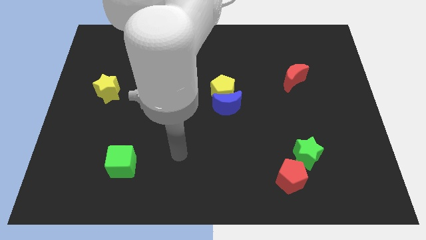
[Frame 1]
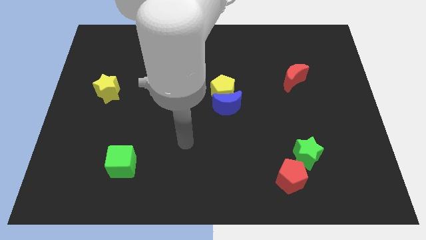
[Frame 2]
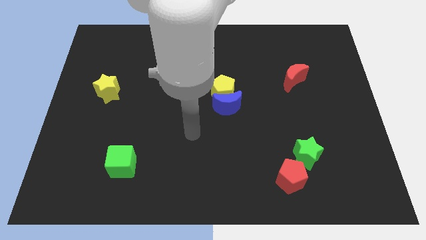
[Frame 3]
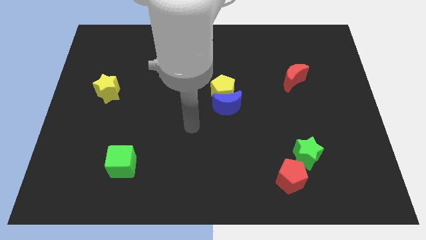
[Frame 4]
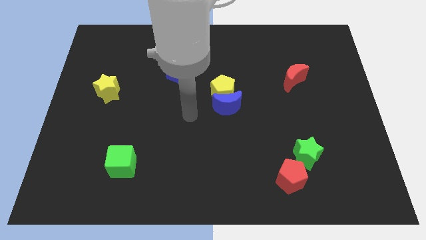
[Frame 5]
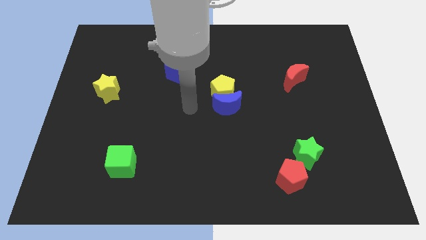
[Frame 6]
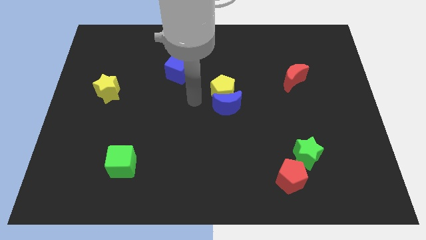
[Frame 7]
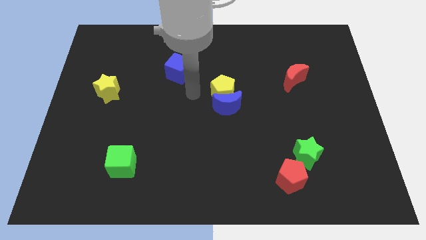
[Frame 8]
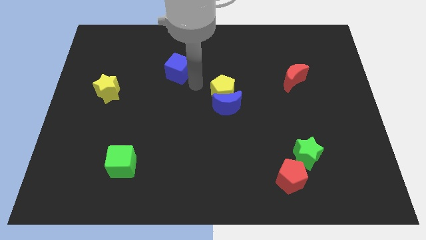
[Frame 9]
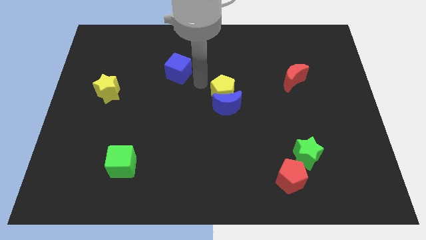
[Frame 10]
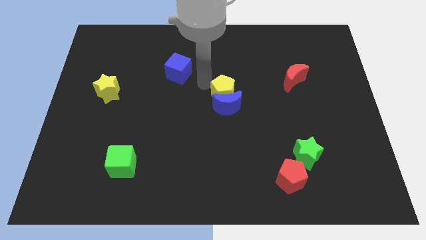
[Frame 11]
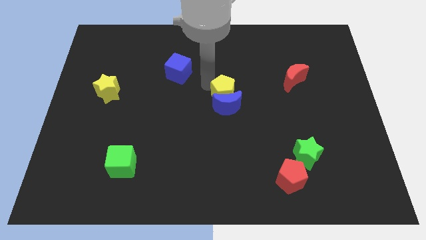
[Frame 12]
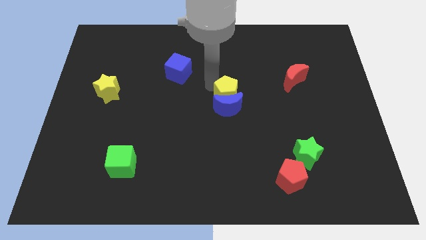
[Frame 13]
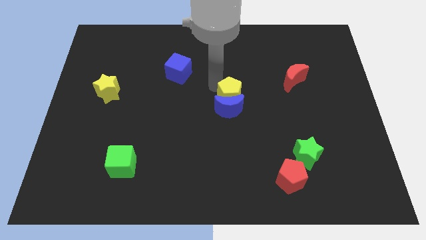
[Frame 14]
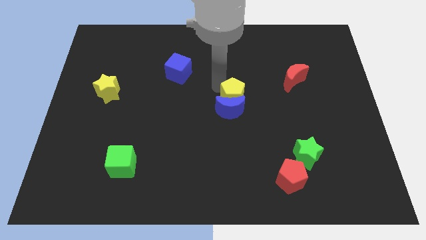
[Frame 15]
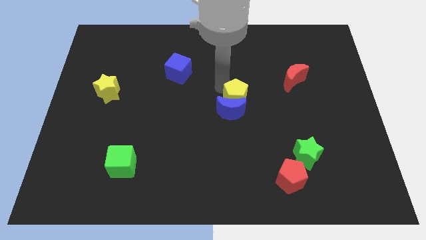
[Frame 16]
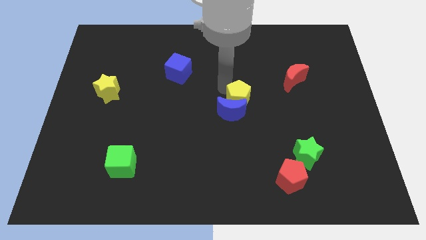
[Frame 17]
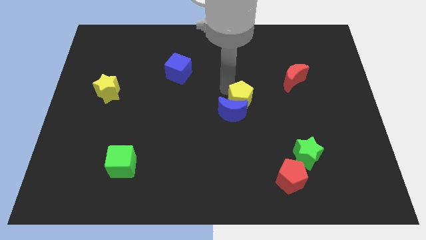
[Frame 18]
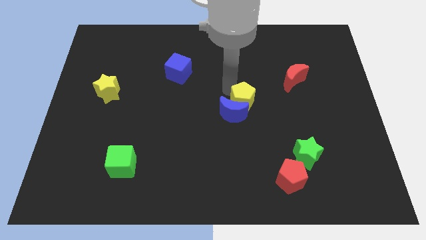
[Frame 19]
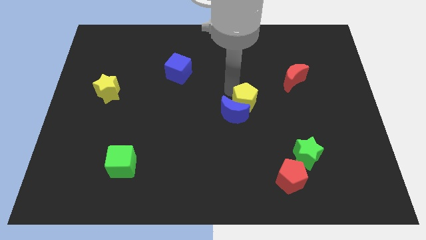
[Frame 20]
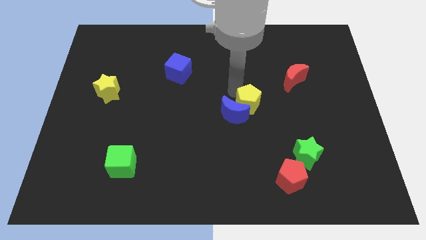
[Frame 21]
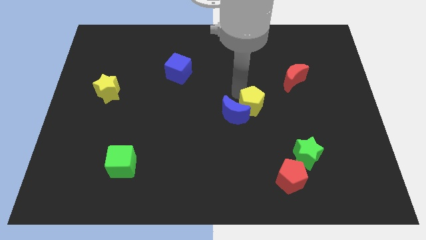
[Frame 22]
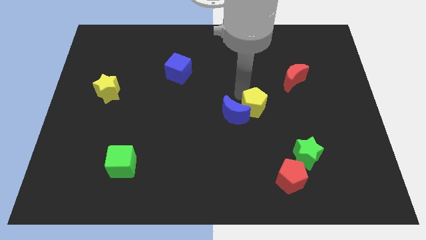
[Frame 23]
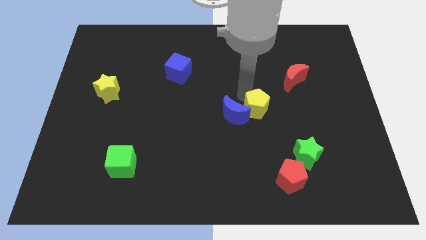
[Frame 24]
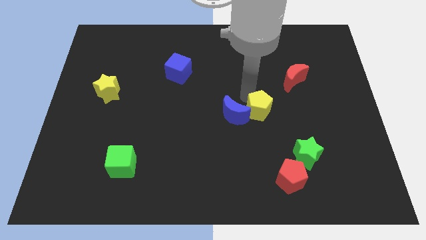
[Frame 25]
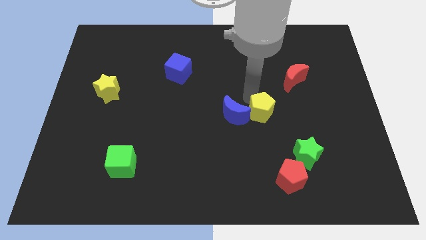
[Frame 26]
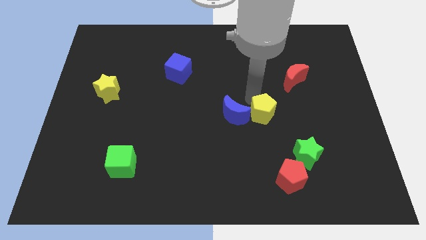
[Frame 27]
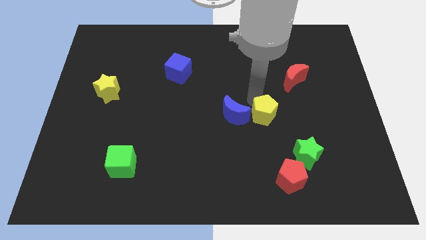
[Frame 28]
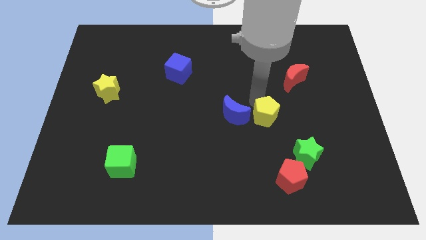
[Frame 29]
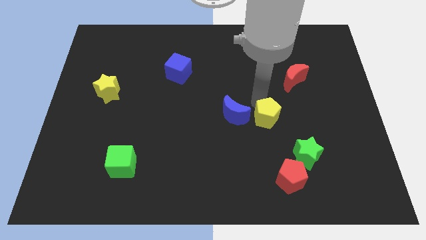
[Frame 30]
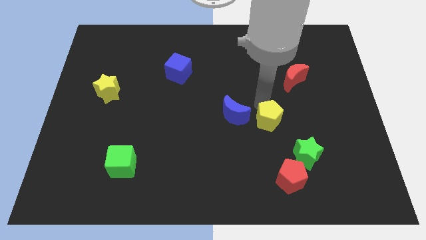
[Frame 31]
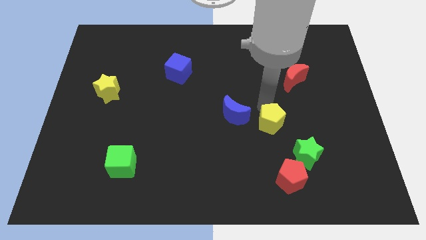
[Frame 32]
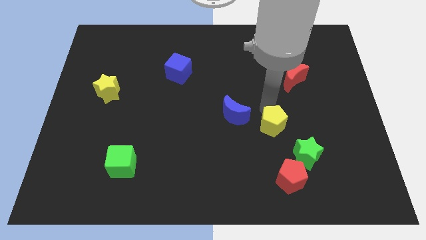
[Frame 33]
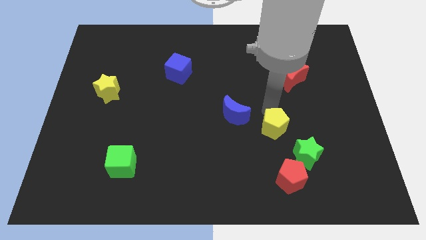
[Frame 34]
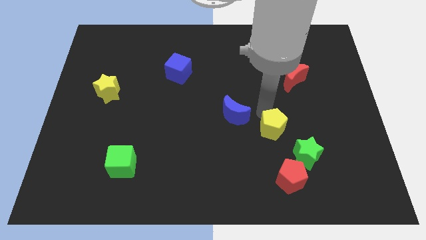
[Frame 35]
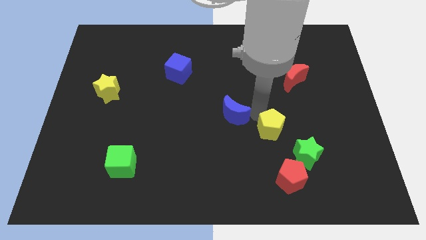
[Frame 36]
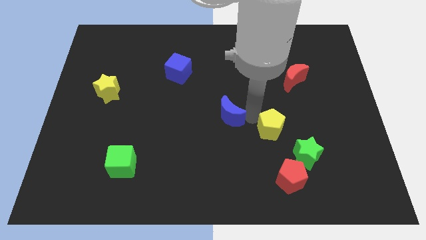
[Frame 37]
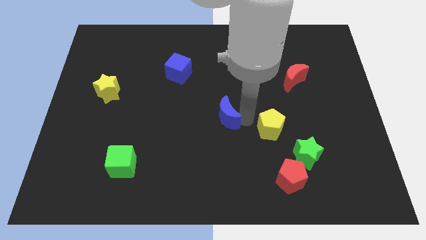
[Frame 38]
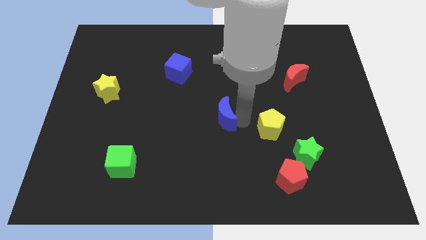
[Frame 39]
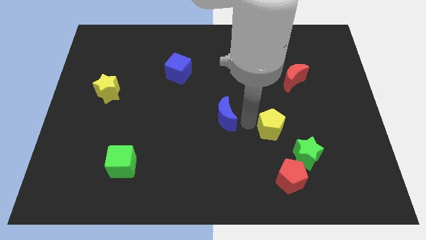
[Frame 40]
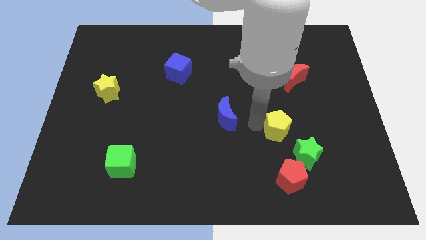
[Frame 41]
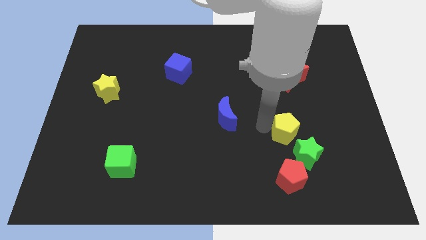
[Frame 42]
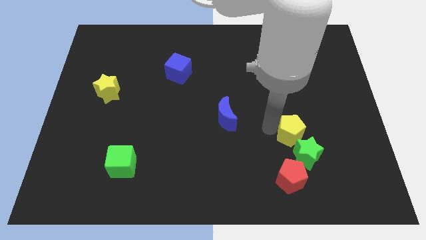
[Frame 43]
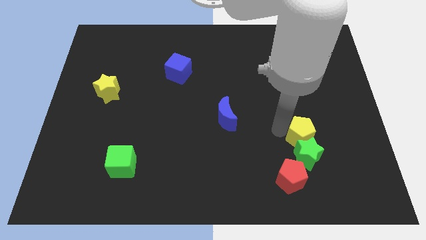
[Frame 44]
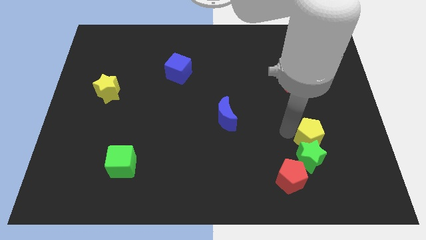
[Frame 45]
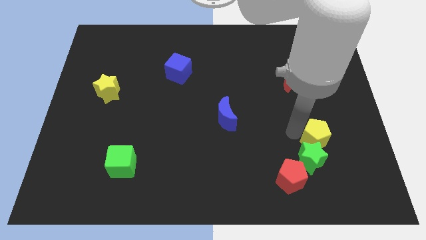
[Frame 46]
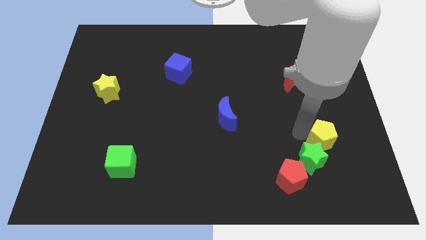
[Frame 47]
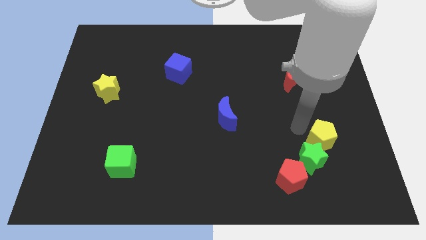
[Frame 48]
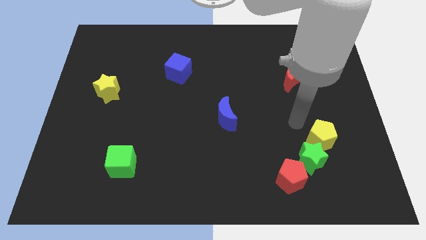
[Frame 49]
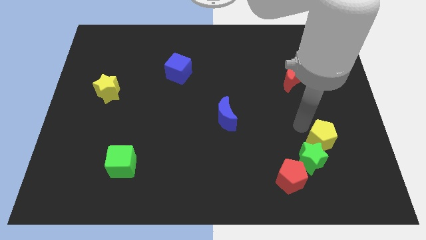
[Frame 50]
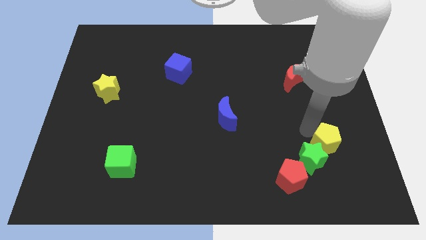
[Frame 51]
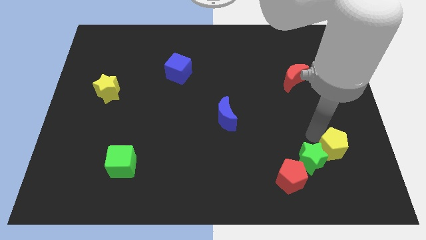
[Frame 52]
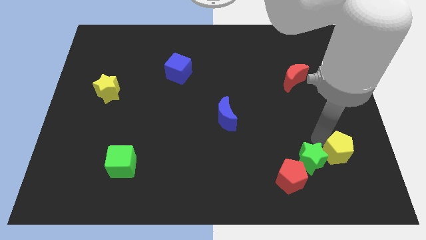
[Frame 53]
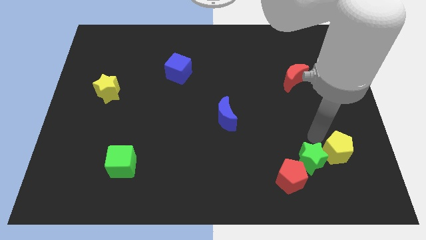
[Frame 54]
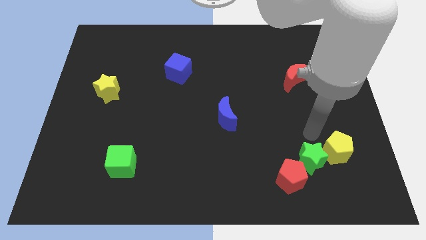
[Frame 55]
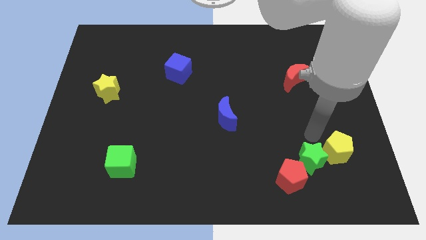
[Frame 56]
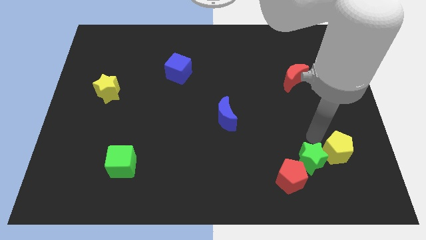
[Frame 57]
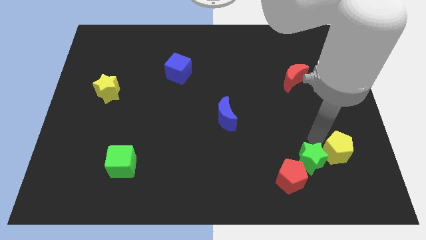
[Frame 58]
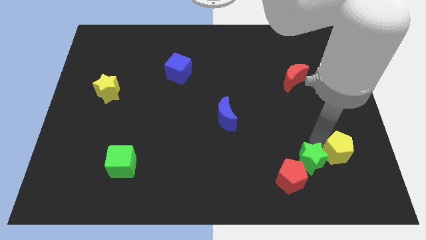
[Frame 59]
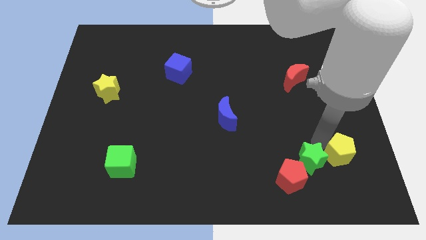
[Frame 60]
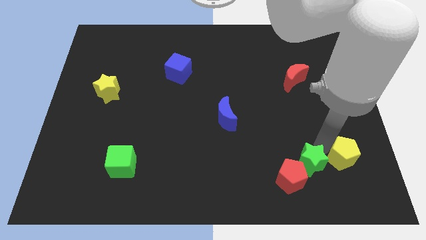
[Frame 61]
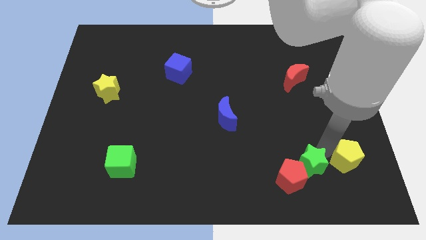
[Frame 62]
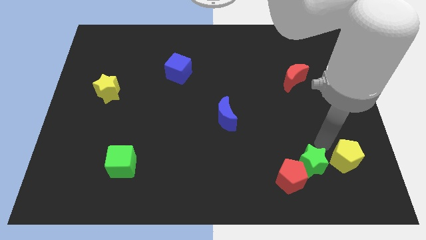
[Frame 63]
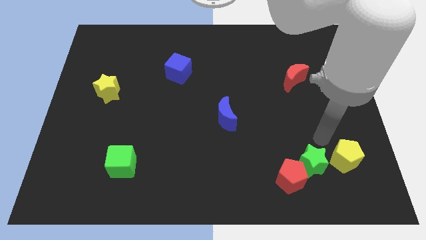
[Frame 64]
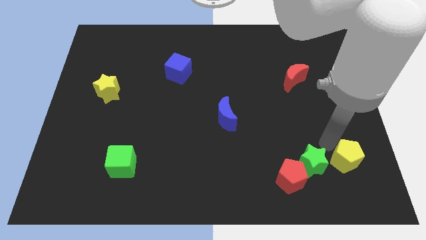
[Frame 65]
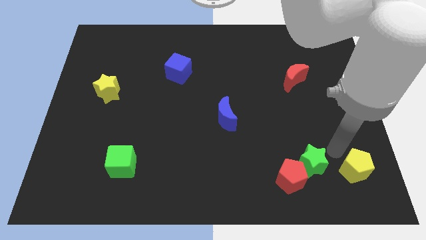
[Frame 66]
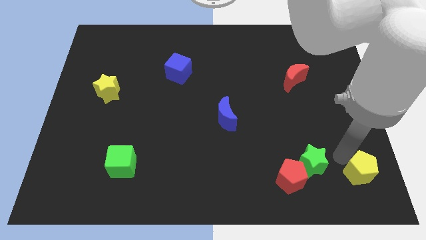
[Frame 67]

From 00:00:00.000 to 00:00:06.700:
slide the yellow pentagon to the bottom right corner

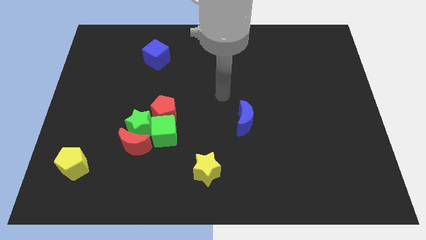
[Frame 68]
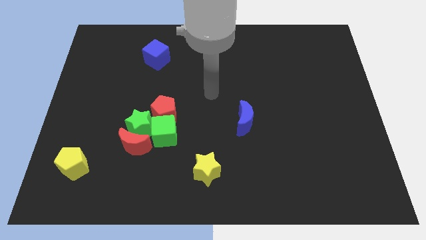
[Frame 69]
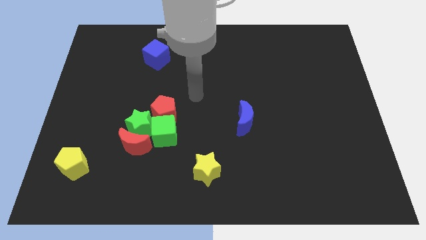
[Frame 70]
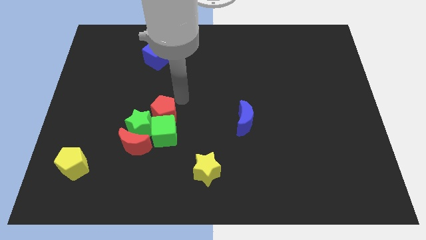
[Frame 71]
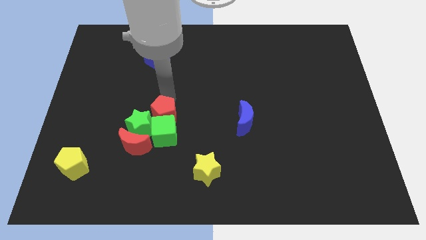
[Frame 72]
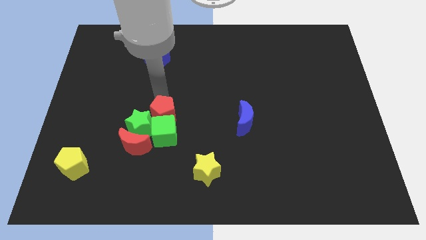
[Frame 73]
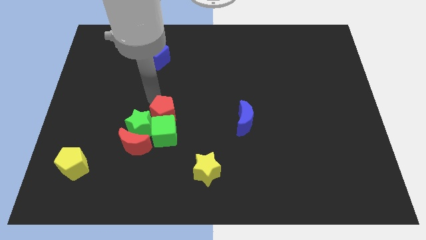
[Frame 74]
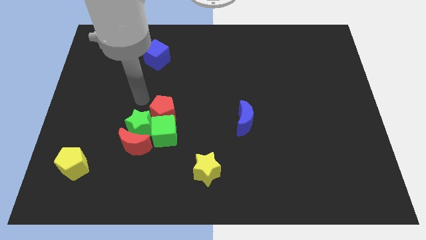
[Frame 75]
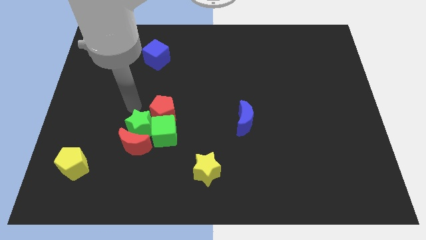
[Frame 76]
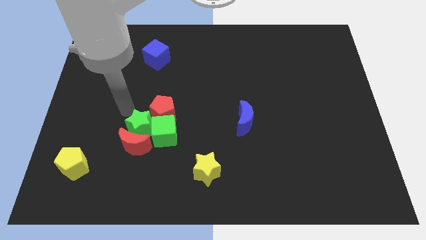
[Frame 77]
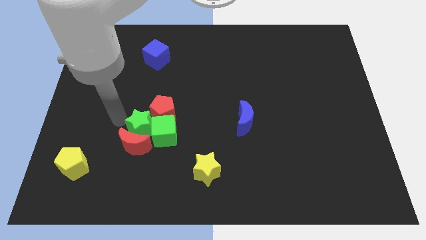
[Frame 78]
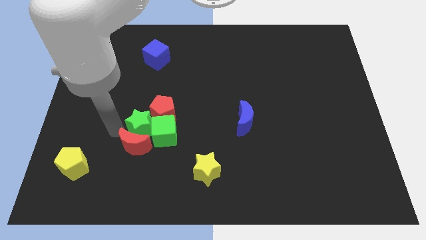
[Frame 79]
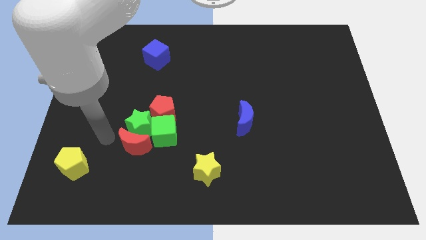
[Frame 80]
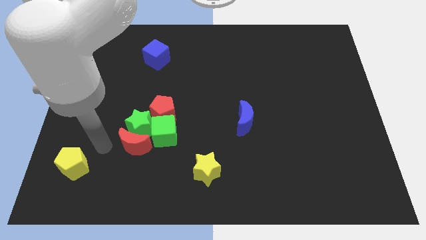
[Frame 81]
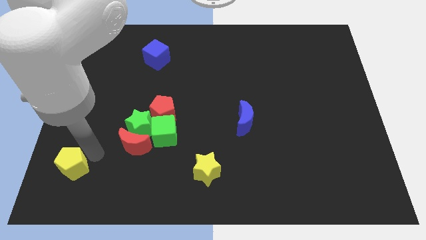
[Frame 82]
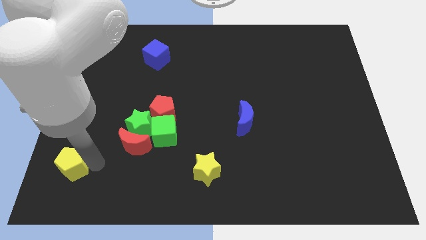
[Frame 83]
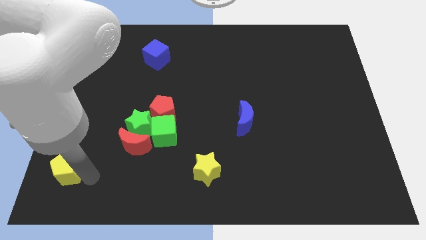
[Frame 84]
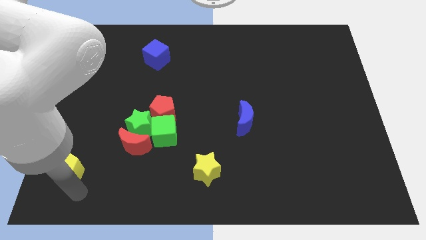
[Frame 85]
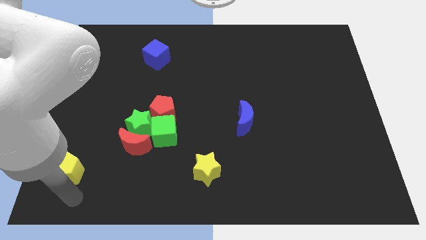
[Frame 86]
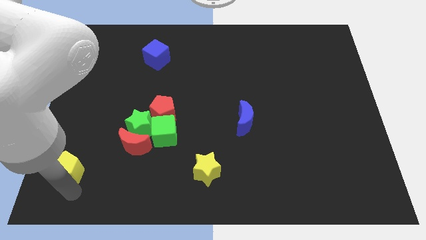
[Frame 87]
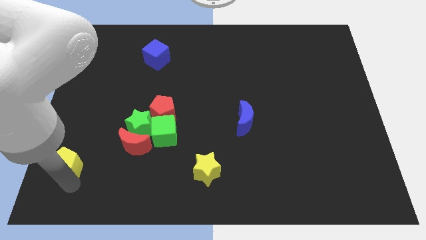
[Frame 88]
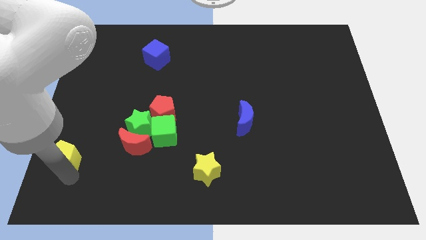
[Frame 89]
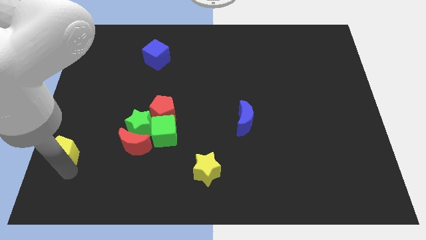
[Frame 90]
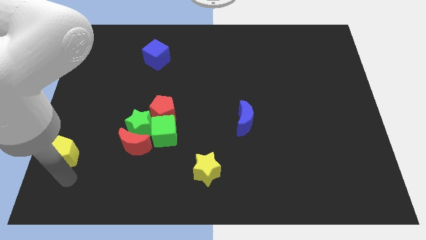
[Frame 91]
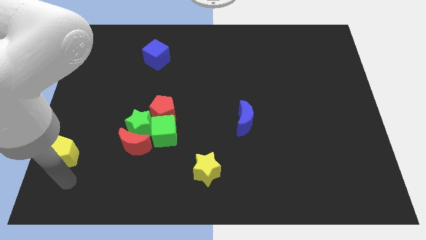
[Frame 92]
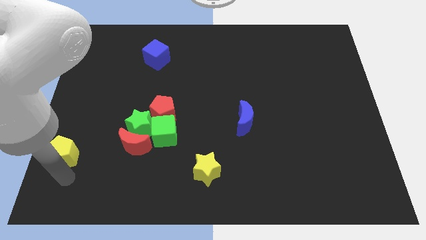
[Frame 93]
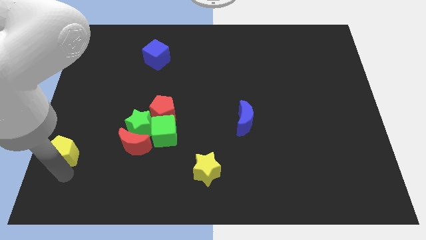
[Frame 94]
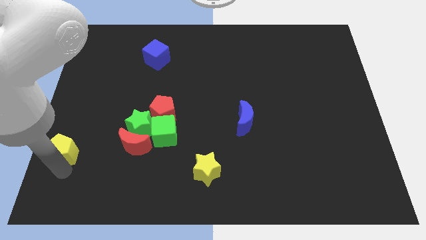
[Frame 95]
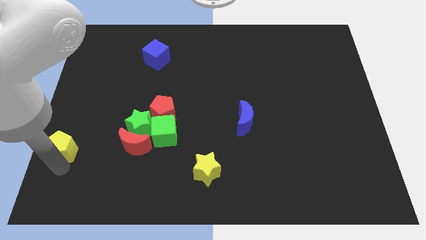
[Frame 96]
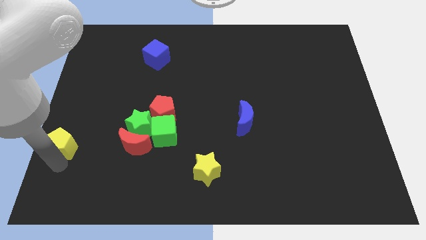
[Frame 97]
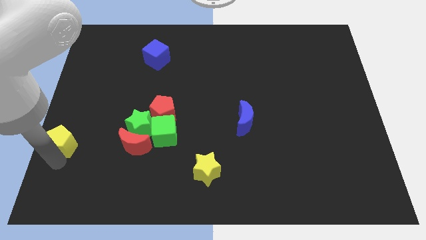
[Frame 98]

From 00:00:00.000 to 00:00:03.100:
slide the yellow pentagon to the left side
